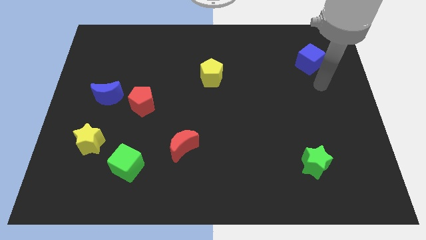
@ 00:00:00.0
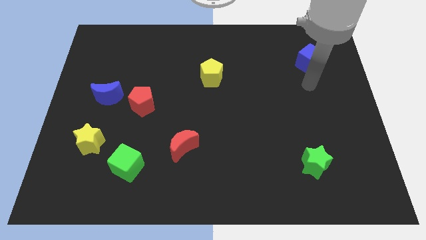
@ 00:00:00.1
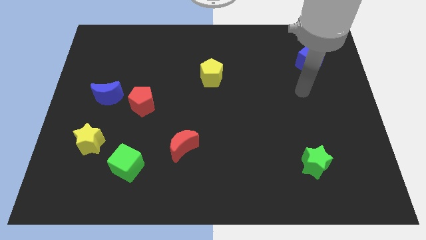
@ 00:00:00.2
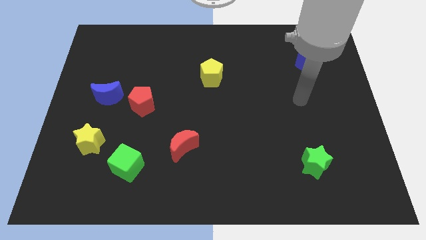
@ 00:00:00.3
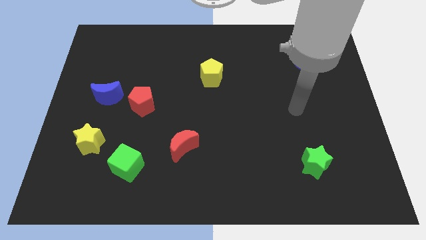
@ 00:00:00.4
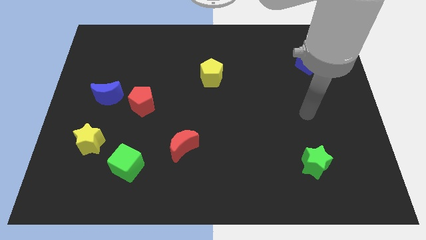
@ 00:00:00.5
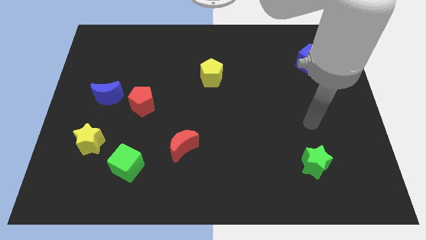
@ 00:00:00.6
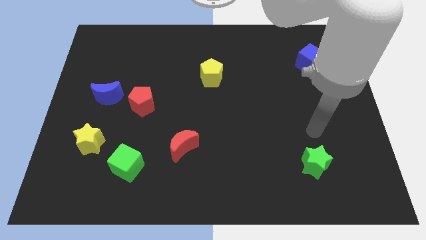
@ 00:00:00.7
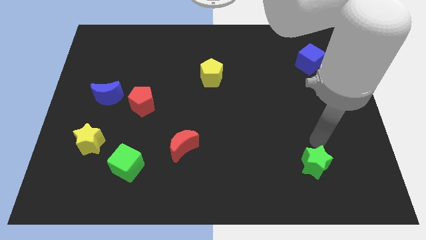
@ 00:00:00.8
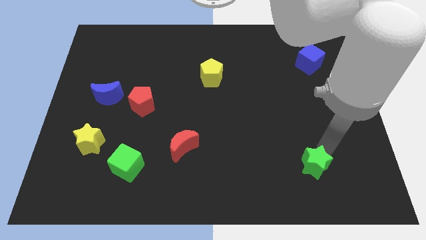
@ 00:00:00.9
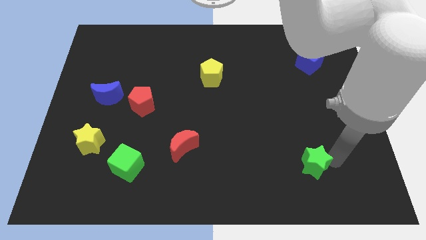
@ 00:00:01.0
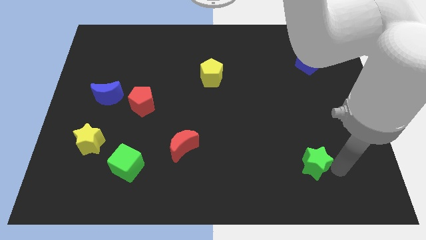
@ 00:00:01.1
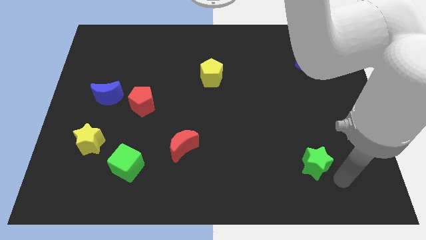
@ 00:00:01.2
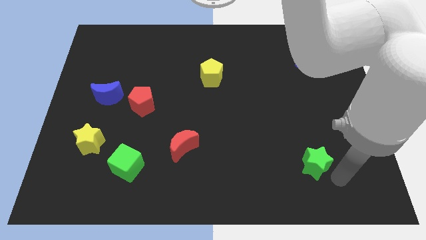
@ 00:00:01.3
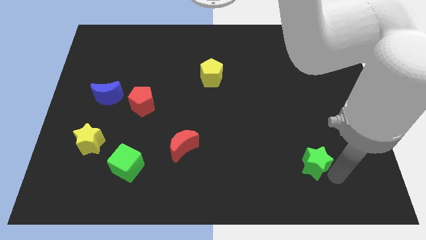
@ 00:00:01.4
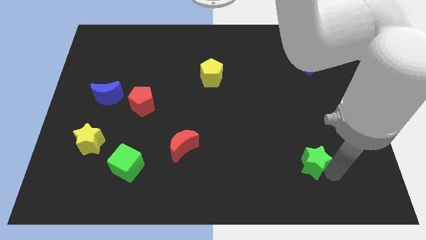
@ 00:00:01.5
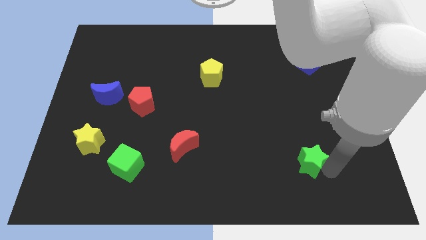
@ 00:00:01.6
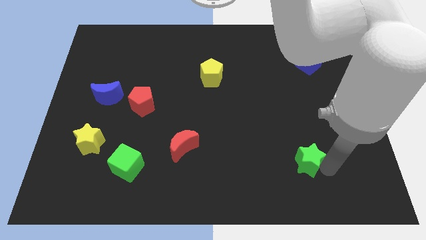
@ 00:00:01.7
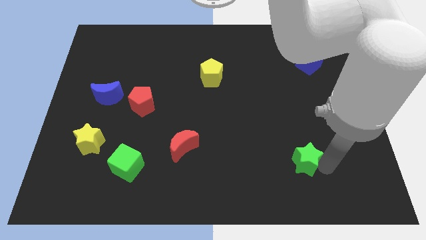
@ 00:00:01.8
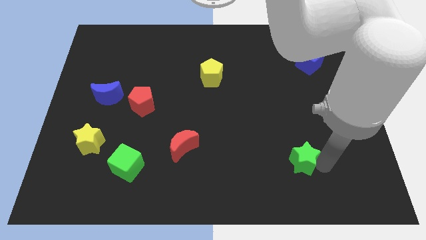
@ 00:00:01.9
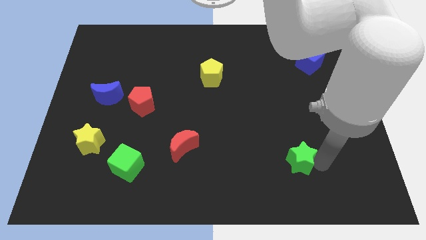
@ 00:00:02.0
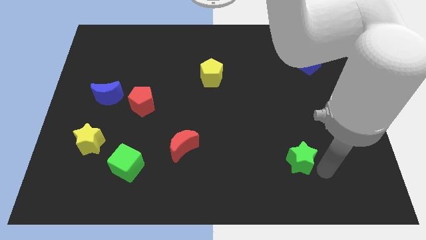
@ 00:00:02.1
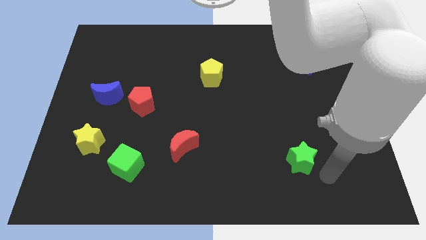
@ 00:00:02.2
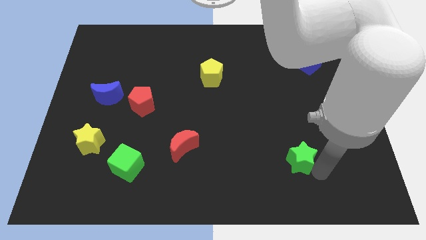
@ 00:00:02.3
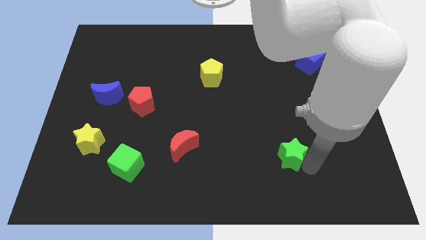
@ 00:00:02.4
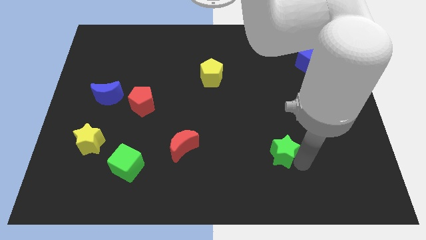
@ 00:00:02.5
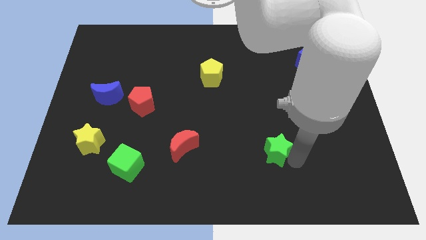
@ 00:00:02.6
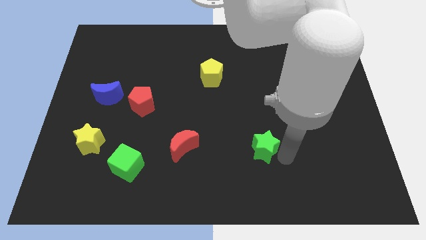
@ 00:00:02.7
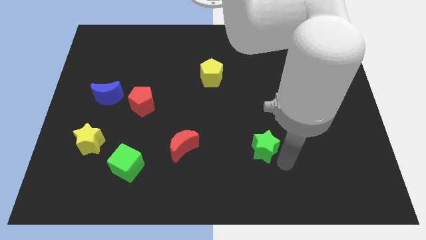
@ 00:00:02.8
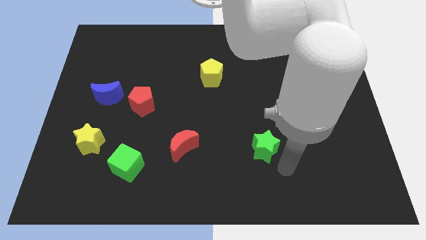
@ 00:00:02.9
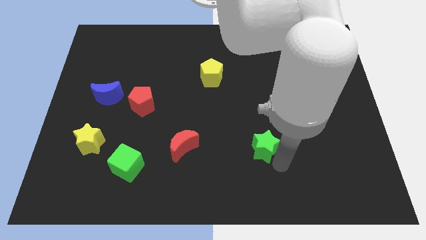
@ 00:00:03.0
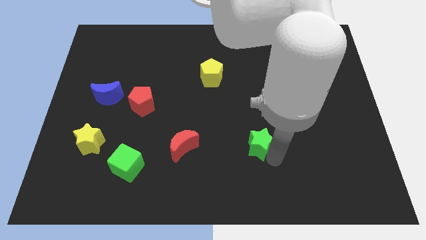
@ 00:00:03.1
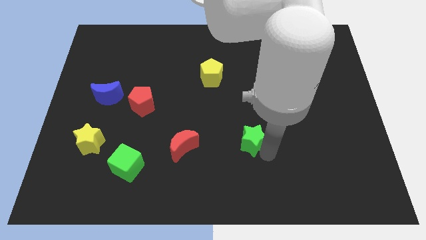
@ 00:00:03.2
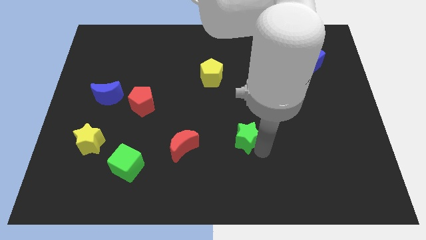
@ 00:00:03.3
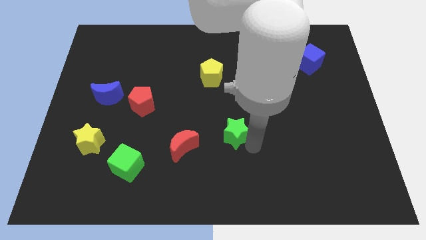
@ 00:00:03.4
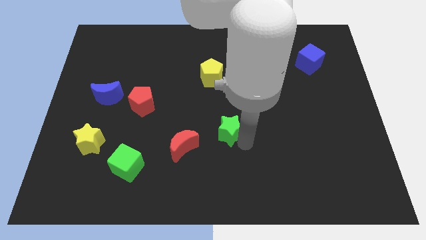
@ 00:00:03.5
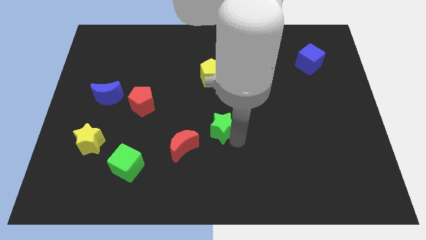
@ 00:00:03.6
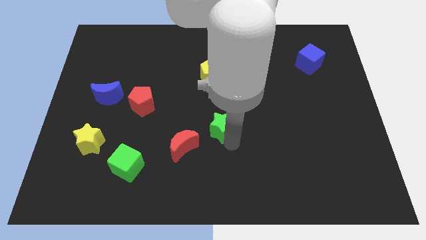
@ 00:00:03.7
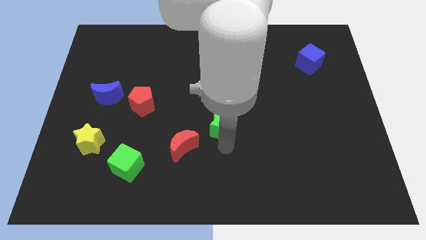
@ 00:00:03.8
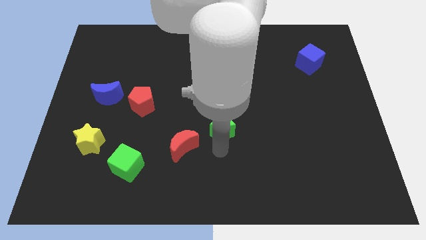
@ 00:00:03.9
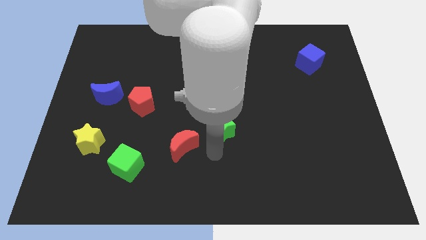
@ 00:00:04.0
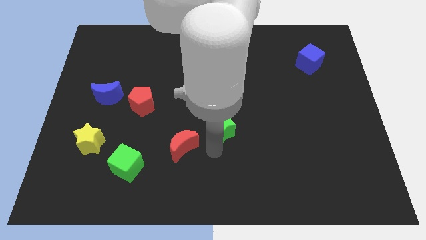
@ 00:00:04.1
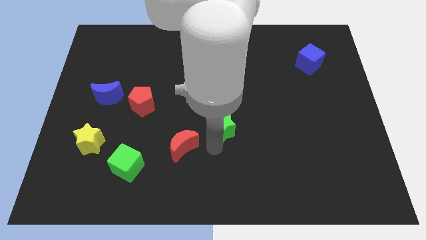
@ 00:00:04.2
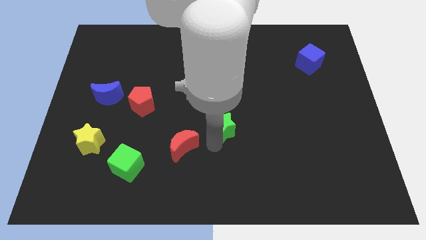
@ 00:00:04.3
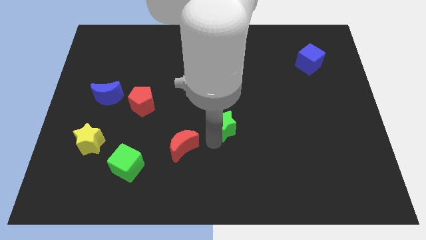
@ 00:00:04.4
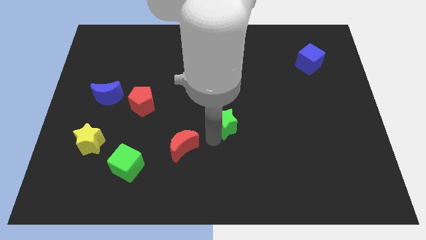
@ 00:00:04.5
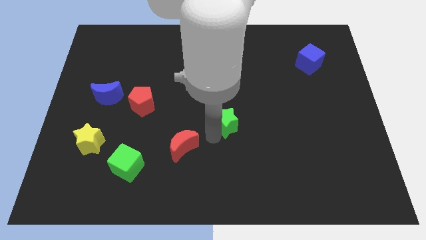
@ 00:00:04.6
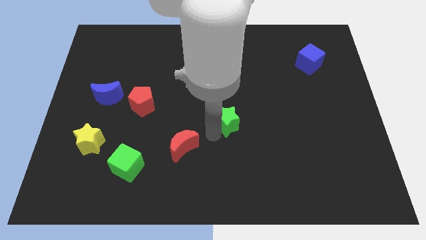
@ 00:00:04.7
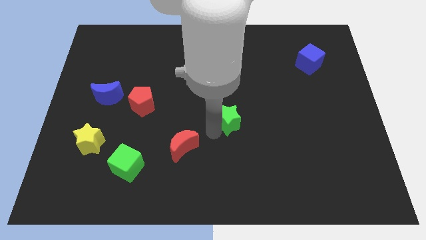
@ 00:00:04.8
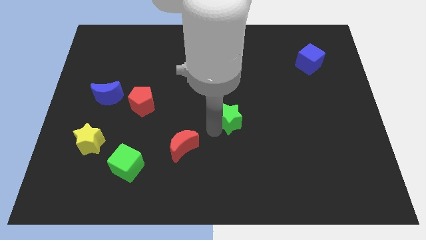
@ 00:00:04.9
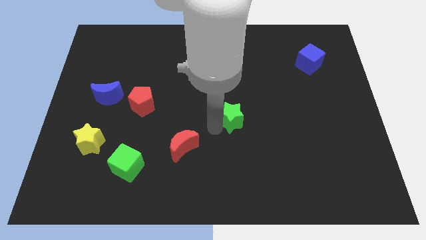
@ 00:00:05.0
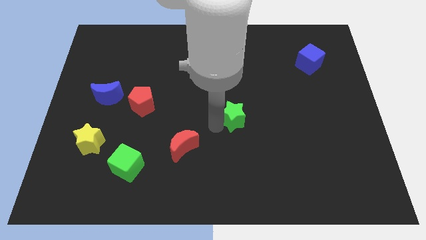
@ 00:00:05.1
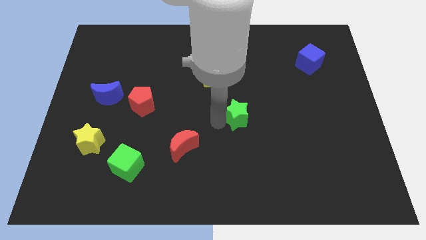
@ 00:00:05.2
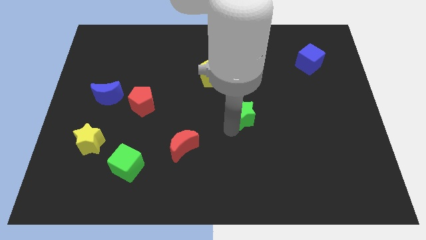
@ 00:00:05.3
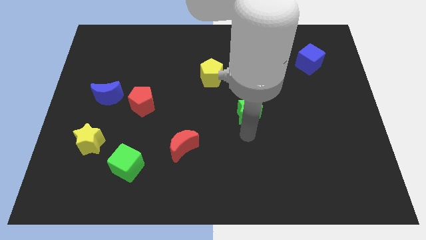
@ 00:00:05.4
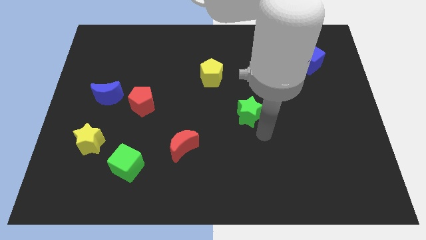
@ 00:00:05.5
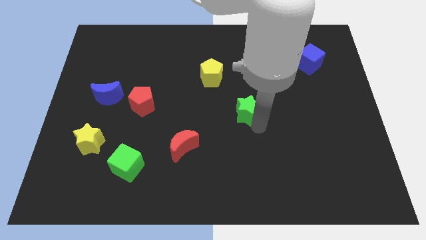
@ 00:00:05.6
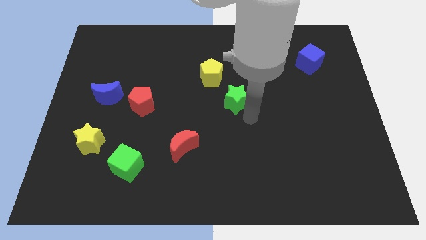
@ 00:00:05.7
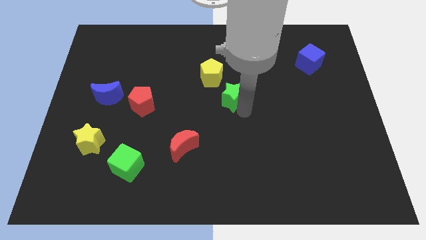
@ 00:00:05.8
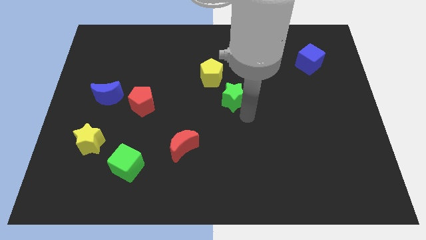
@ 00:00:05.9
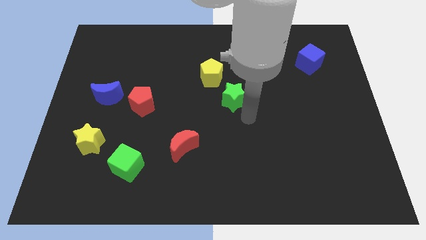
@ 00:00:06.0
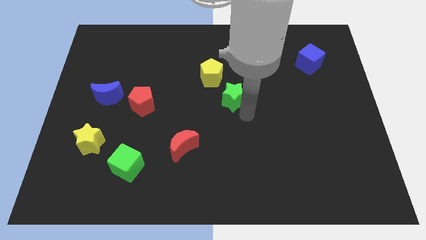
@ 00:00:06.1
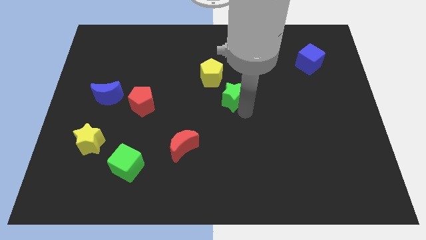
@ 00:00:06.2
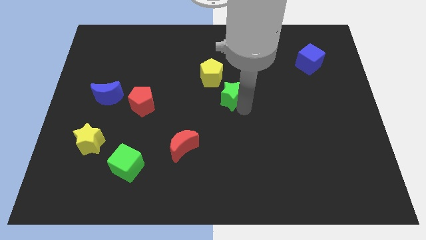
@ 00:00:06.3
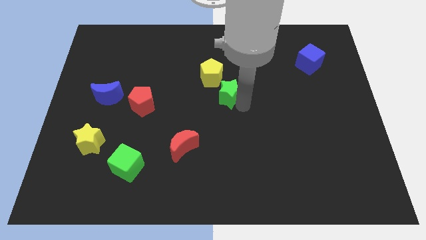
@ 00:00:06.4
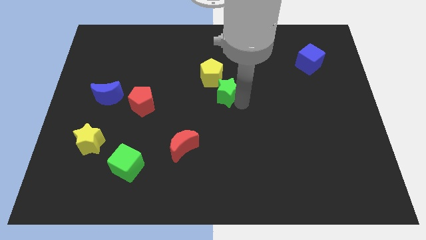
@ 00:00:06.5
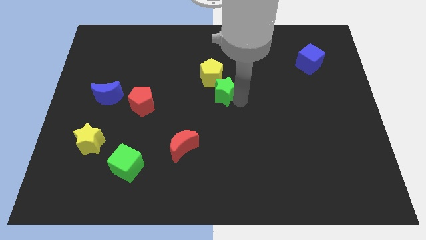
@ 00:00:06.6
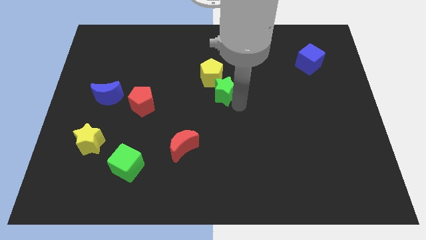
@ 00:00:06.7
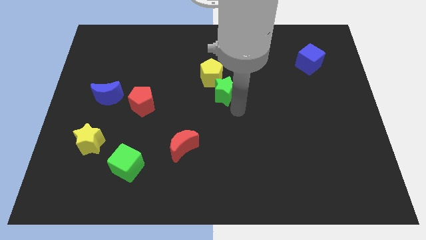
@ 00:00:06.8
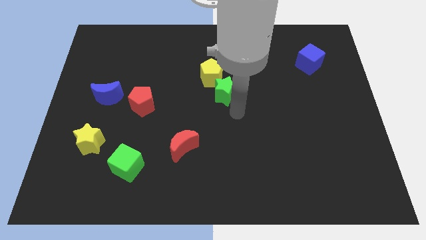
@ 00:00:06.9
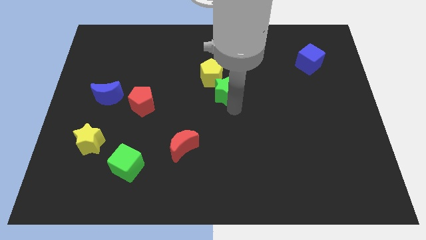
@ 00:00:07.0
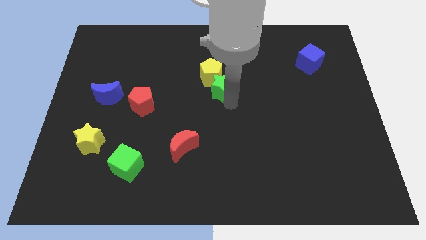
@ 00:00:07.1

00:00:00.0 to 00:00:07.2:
put the green star towards the yellow pentagon

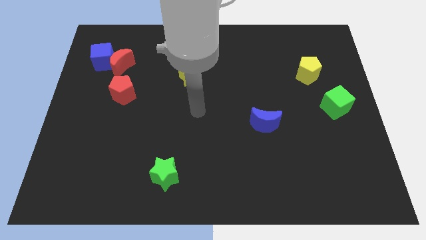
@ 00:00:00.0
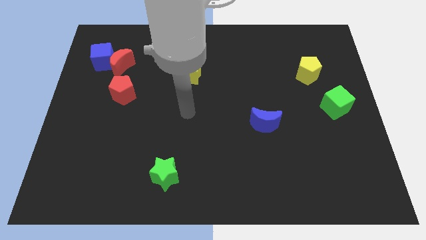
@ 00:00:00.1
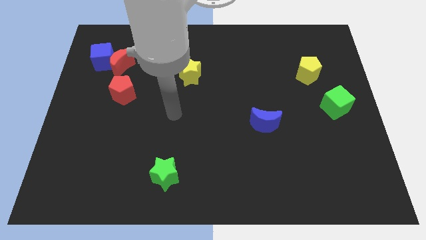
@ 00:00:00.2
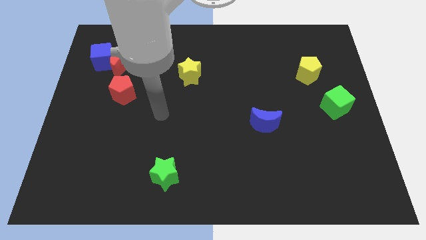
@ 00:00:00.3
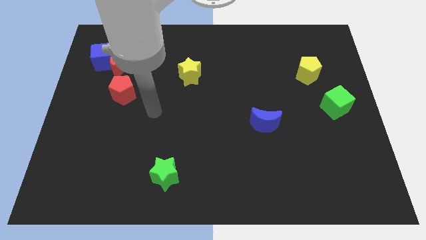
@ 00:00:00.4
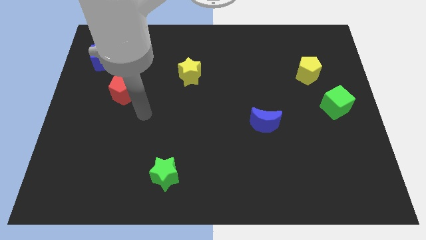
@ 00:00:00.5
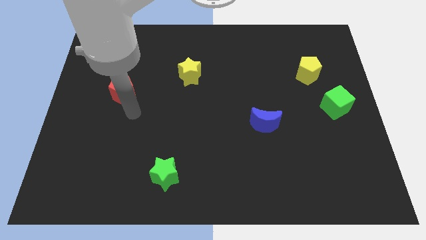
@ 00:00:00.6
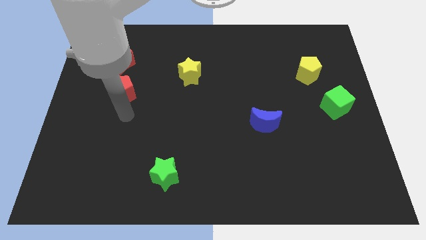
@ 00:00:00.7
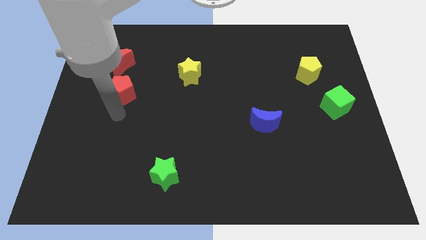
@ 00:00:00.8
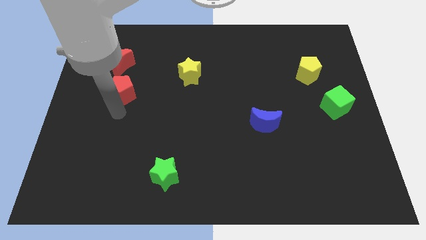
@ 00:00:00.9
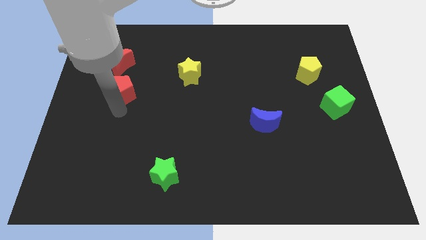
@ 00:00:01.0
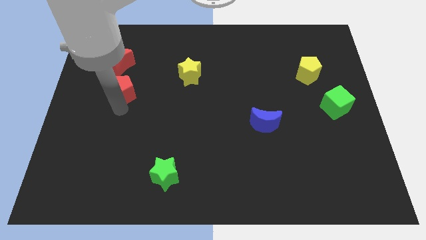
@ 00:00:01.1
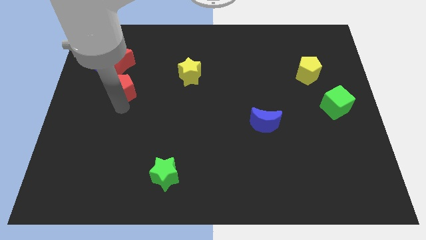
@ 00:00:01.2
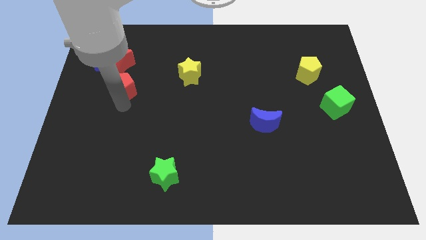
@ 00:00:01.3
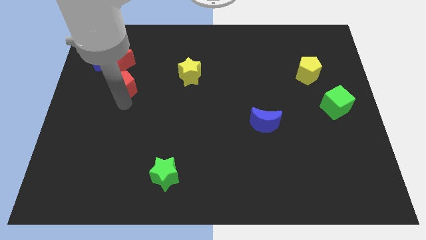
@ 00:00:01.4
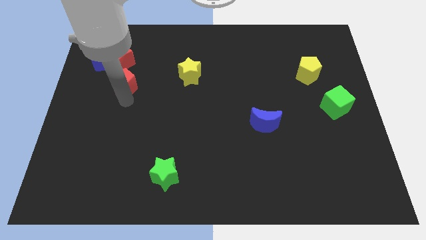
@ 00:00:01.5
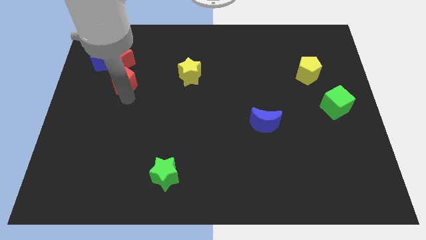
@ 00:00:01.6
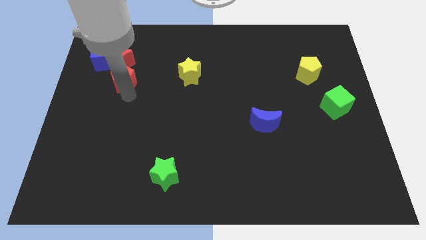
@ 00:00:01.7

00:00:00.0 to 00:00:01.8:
slide the red pentagon close to the red moon
